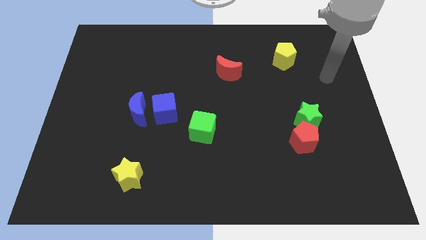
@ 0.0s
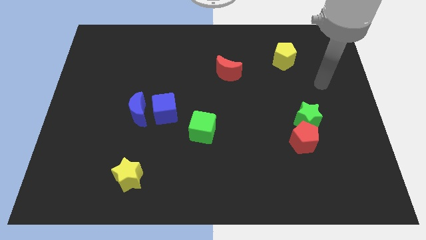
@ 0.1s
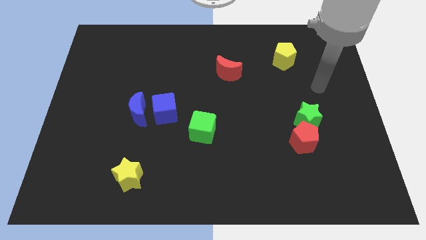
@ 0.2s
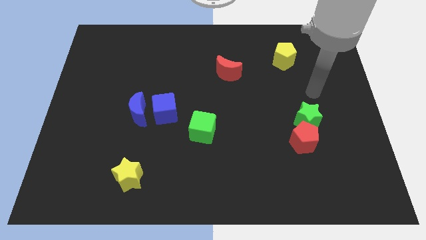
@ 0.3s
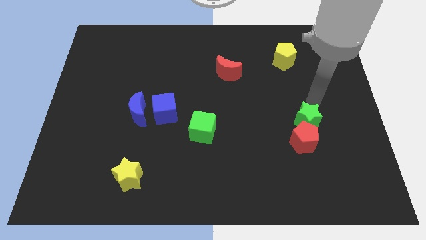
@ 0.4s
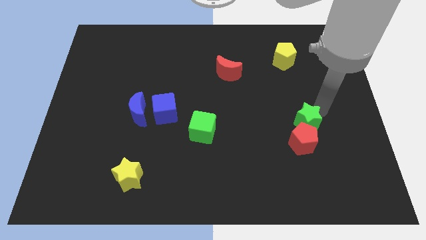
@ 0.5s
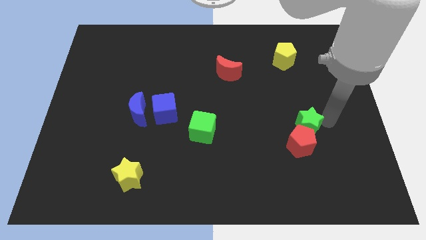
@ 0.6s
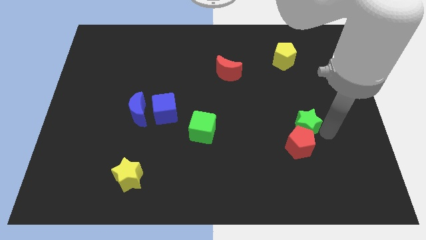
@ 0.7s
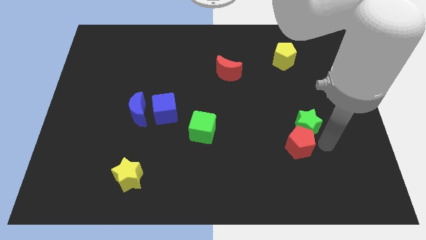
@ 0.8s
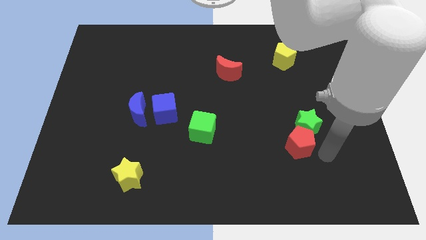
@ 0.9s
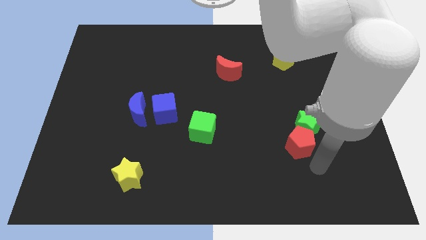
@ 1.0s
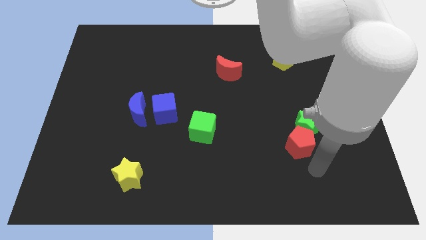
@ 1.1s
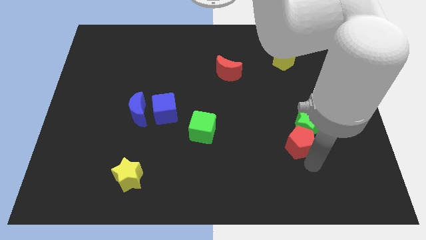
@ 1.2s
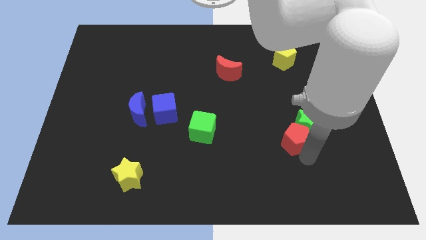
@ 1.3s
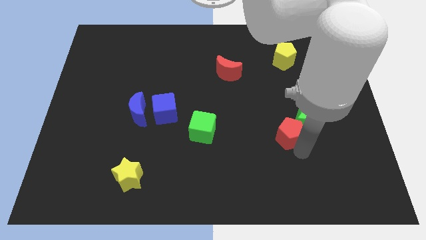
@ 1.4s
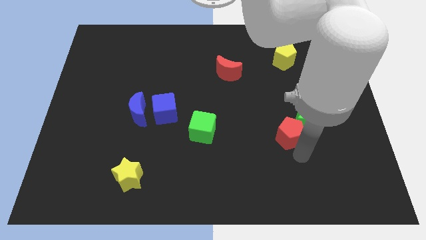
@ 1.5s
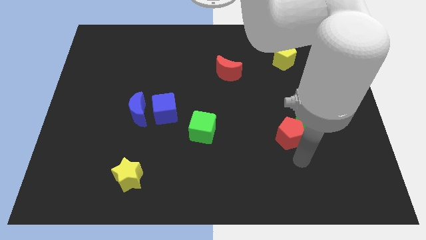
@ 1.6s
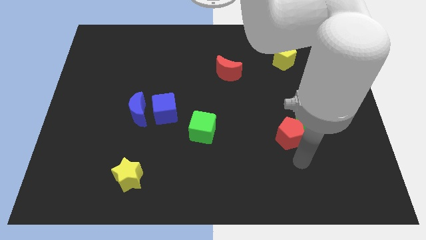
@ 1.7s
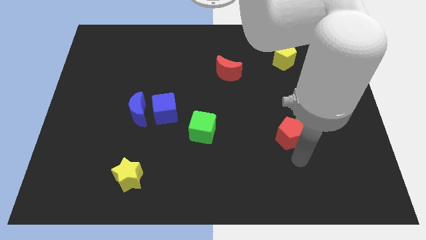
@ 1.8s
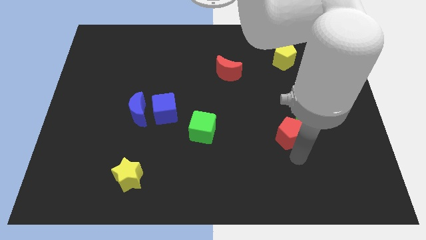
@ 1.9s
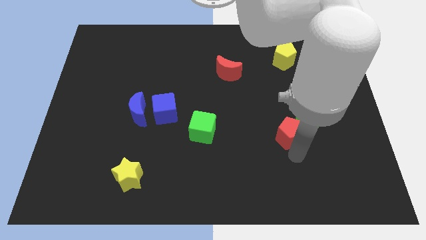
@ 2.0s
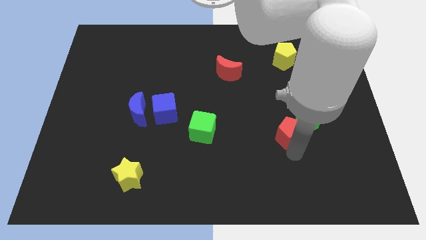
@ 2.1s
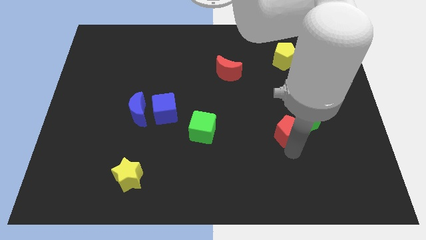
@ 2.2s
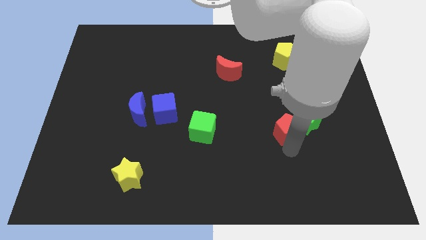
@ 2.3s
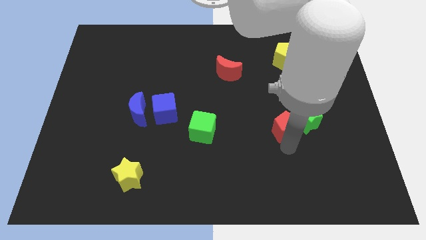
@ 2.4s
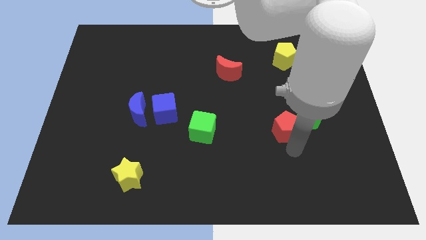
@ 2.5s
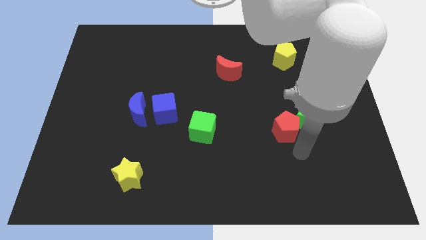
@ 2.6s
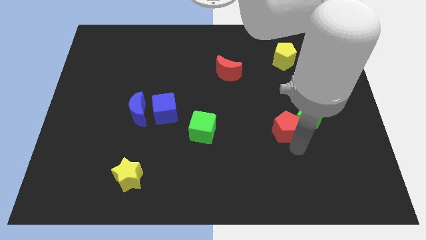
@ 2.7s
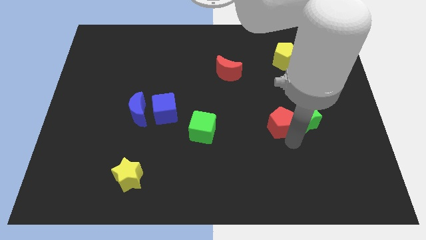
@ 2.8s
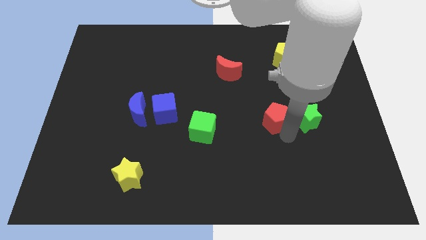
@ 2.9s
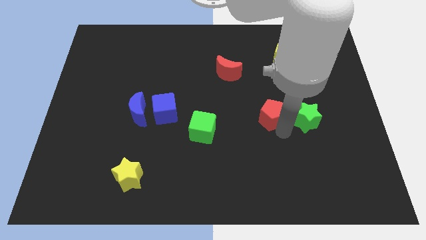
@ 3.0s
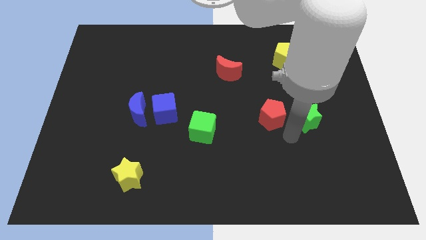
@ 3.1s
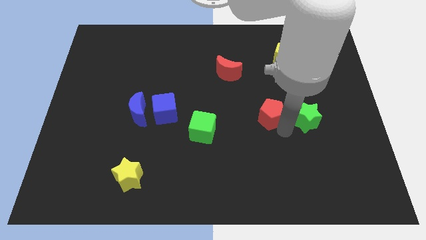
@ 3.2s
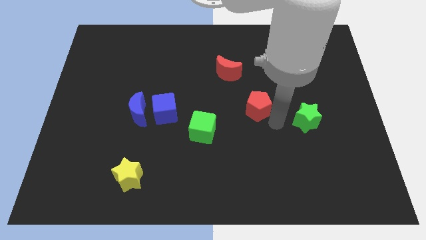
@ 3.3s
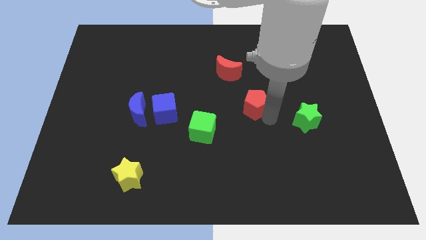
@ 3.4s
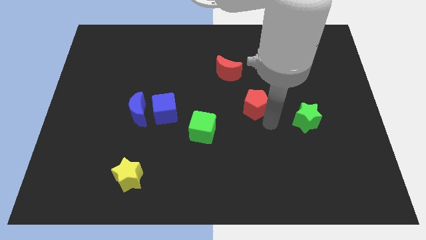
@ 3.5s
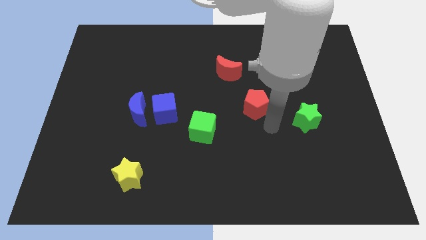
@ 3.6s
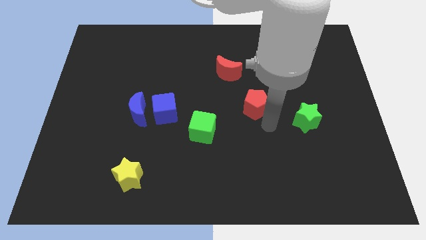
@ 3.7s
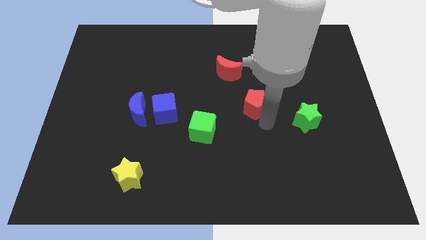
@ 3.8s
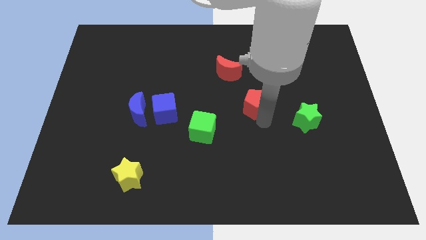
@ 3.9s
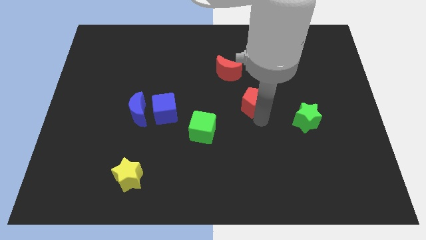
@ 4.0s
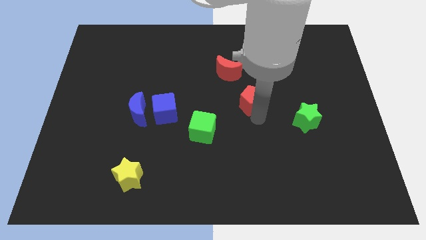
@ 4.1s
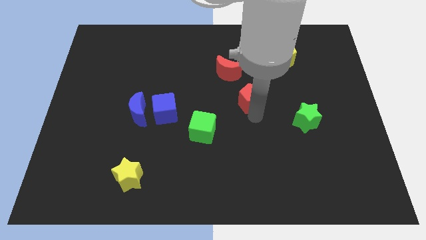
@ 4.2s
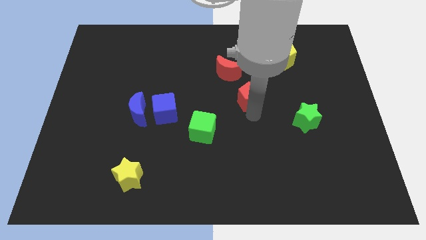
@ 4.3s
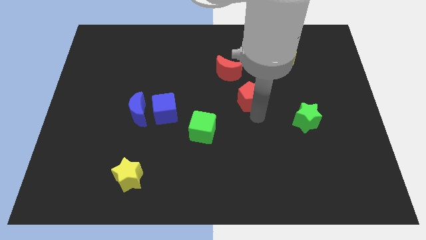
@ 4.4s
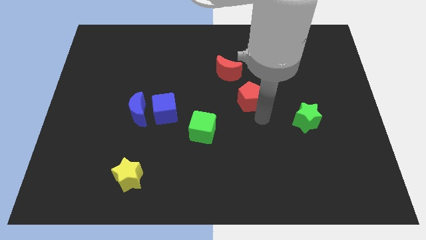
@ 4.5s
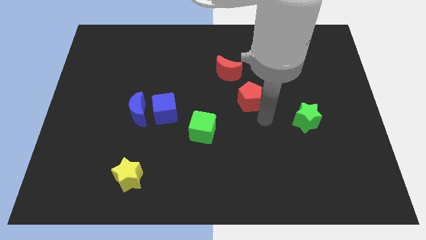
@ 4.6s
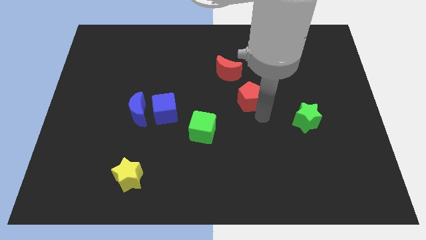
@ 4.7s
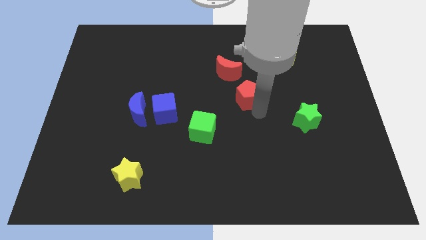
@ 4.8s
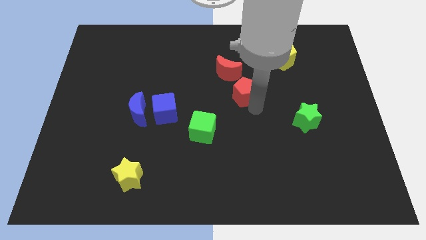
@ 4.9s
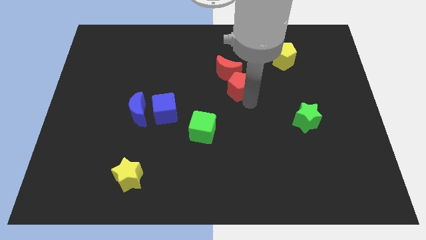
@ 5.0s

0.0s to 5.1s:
put the red pentagon close to the red moon

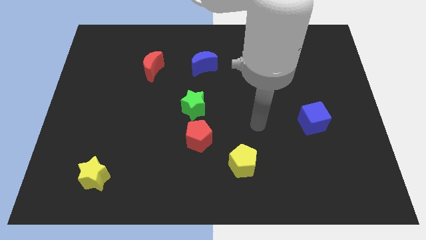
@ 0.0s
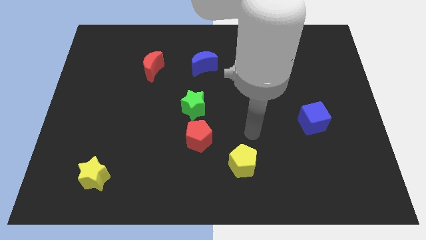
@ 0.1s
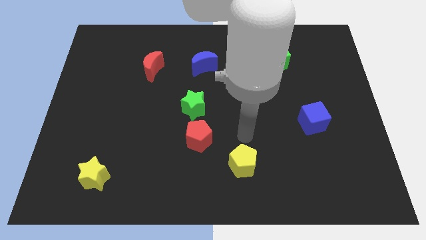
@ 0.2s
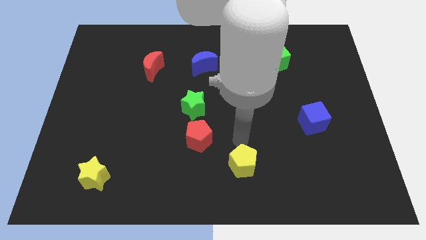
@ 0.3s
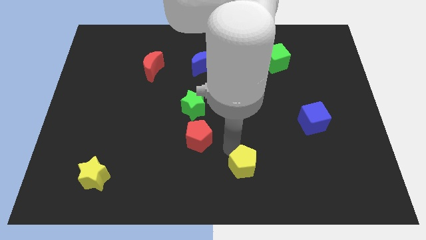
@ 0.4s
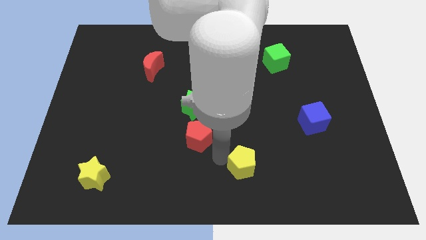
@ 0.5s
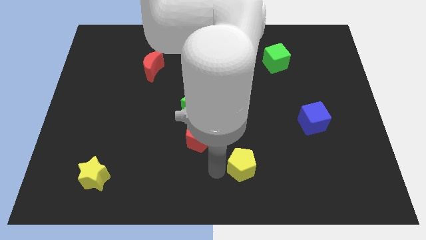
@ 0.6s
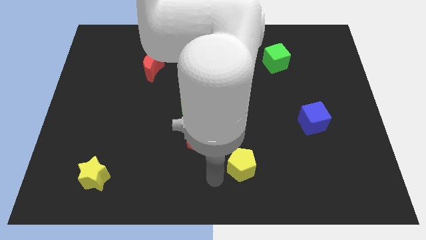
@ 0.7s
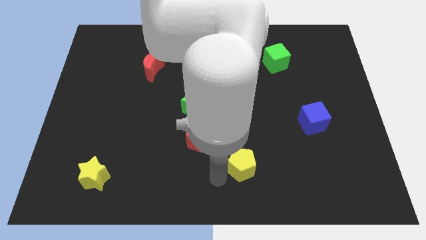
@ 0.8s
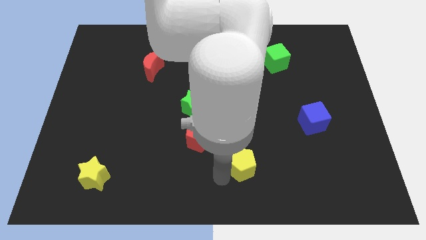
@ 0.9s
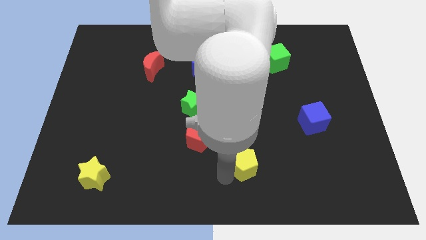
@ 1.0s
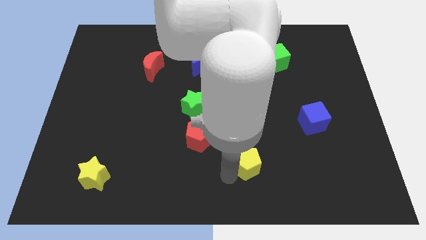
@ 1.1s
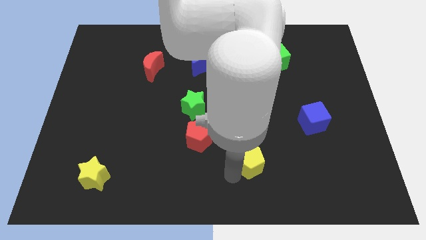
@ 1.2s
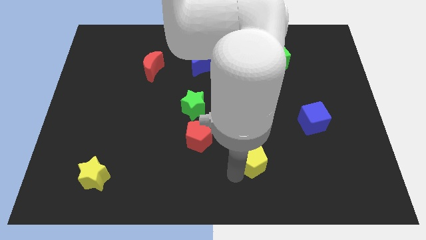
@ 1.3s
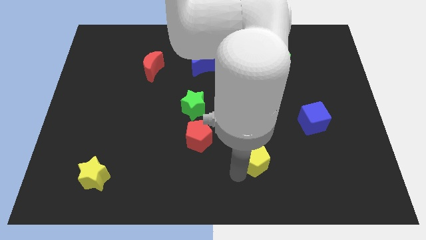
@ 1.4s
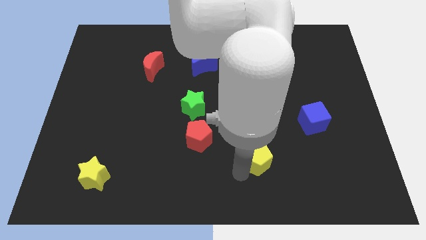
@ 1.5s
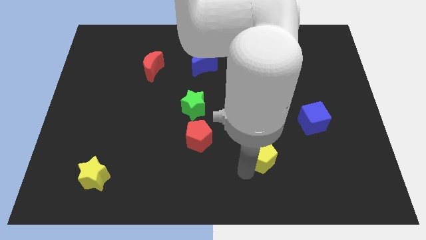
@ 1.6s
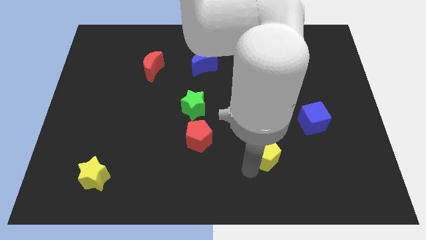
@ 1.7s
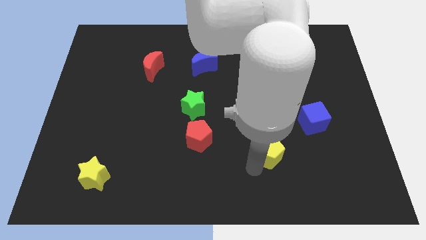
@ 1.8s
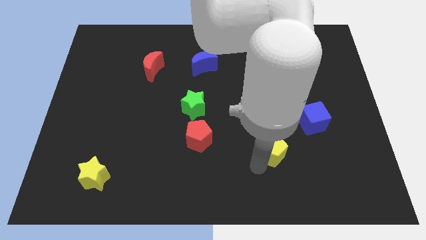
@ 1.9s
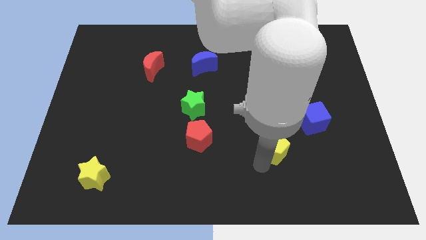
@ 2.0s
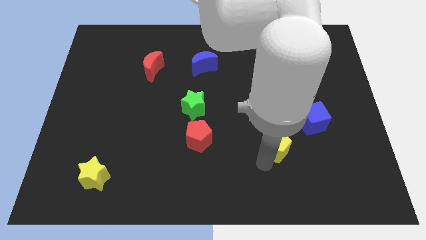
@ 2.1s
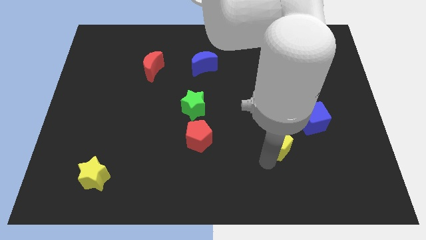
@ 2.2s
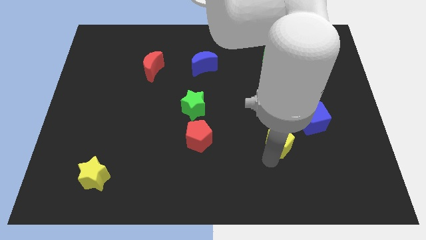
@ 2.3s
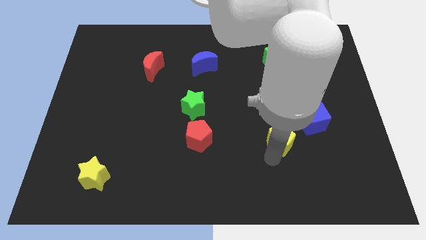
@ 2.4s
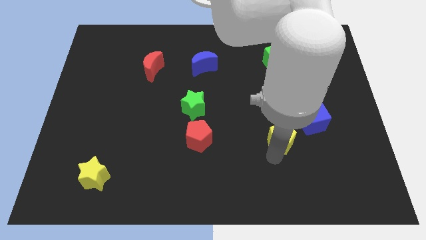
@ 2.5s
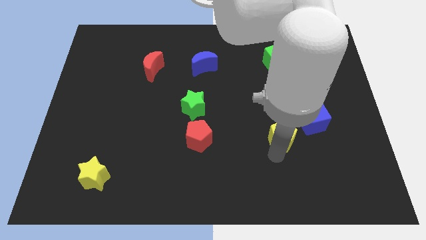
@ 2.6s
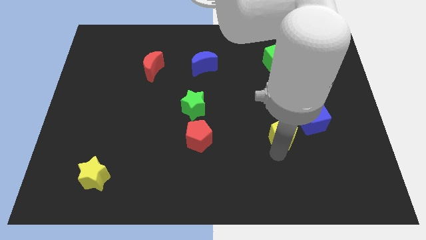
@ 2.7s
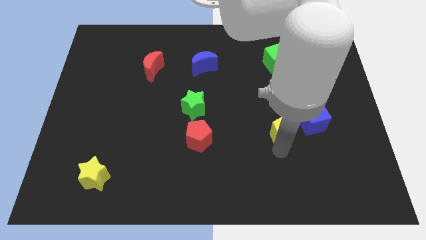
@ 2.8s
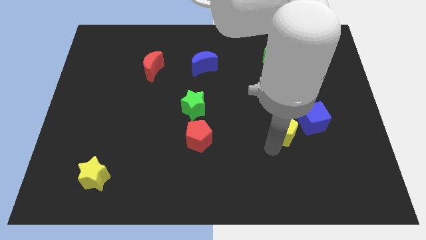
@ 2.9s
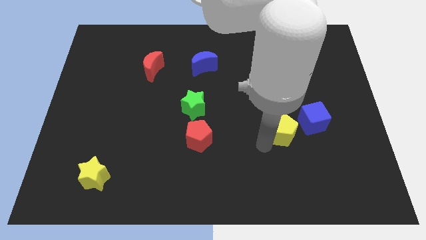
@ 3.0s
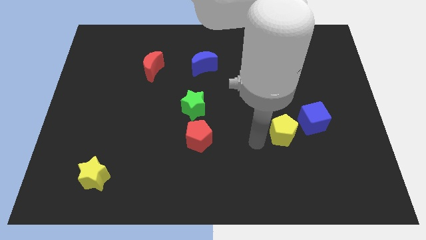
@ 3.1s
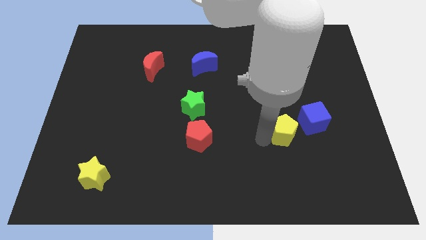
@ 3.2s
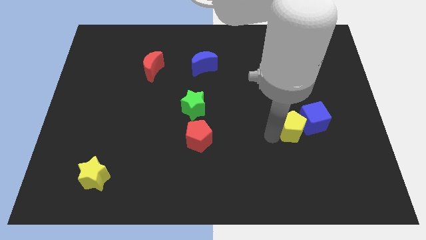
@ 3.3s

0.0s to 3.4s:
slide the yellow pentagon next to the blue cube
